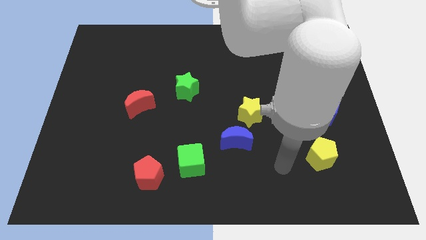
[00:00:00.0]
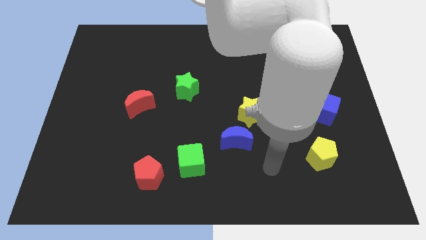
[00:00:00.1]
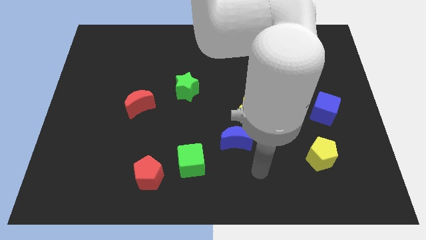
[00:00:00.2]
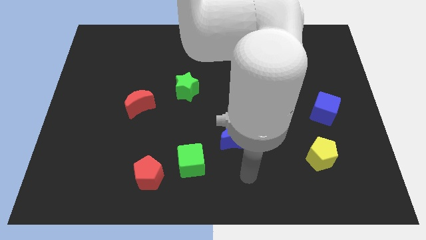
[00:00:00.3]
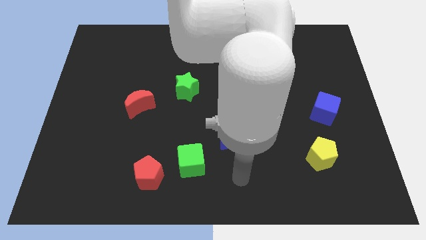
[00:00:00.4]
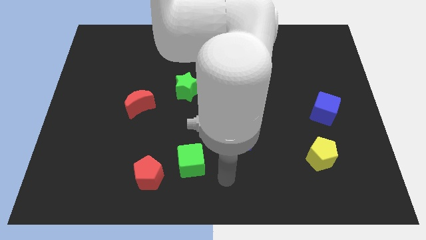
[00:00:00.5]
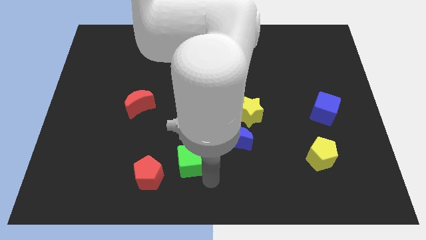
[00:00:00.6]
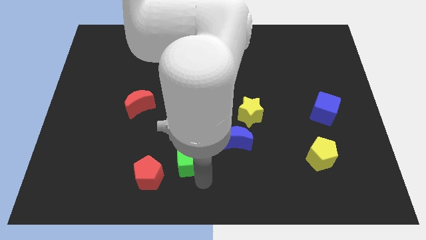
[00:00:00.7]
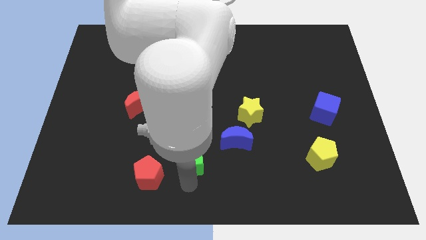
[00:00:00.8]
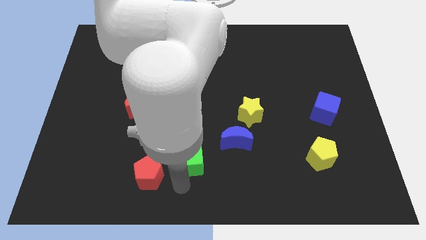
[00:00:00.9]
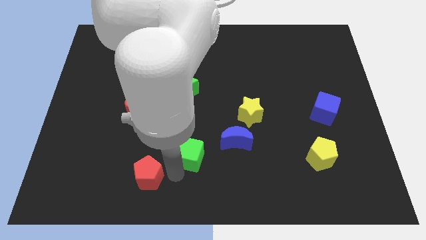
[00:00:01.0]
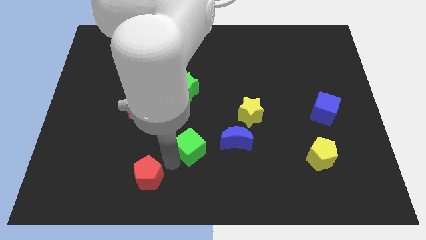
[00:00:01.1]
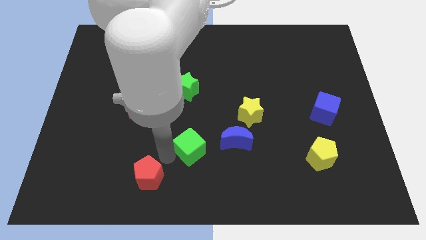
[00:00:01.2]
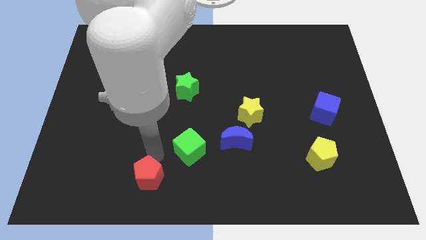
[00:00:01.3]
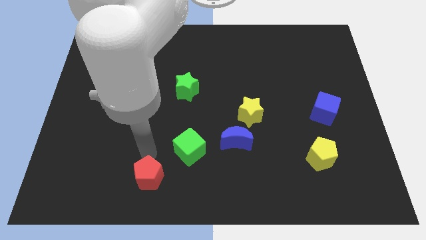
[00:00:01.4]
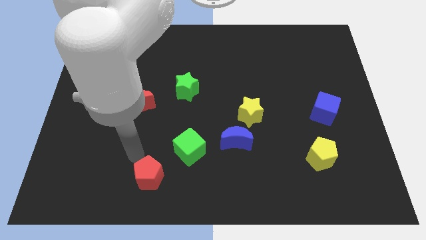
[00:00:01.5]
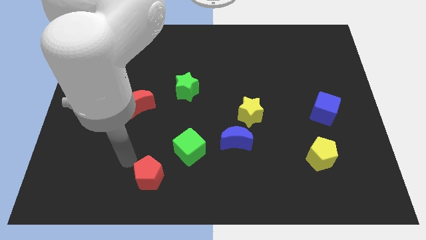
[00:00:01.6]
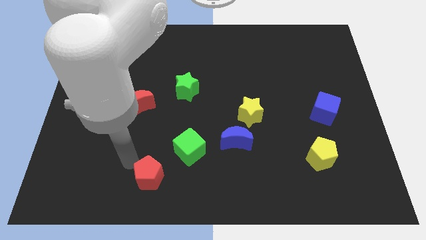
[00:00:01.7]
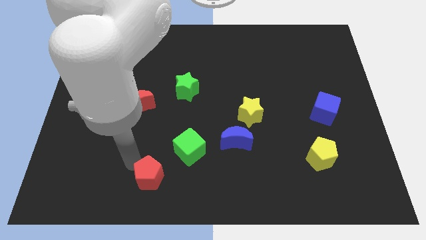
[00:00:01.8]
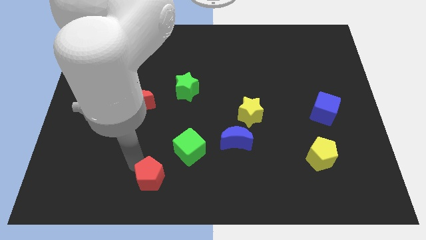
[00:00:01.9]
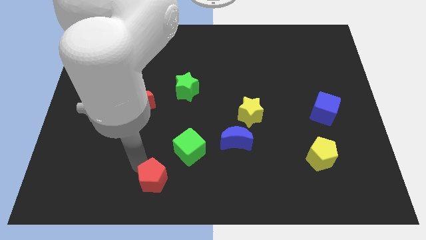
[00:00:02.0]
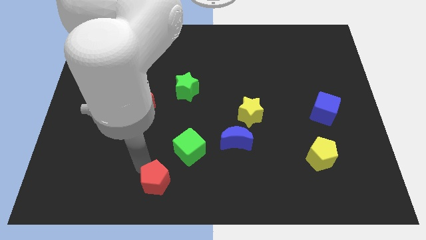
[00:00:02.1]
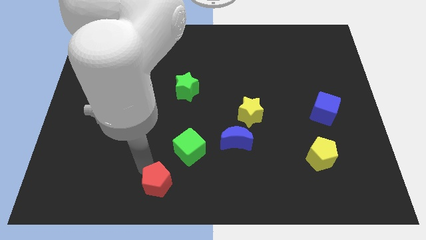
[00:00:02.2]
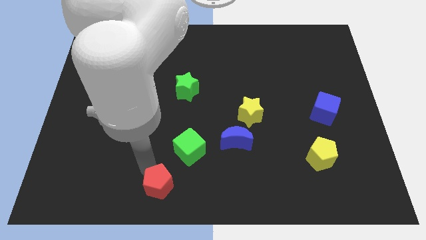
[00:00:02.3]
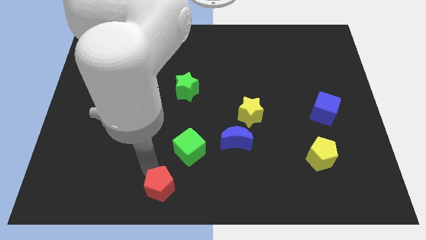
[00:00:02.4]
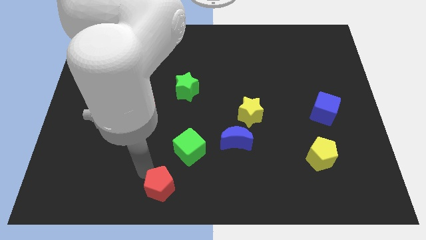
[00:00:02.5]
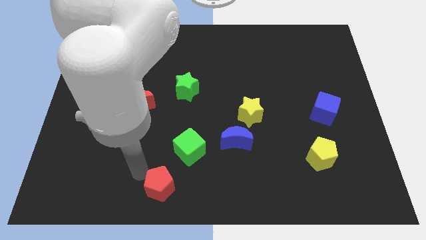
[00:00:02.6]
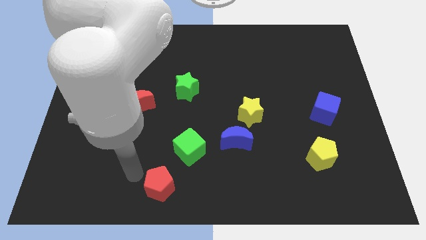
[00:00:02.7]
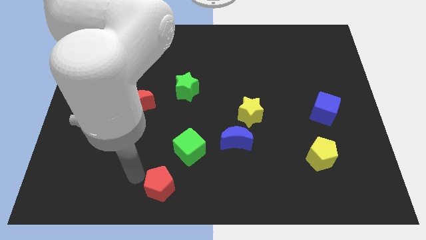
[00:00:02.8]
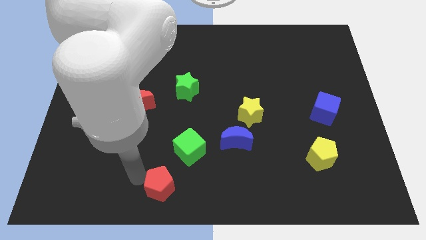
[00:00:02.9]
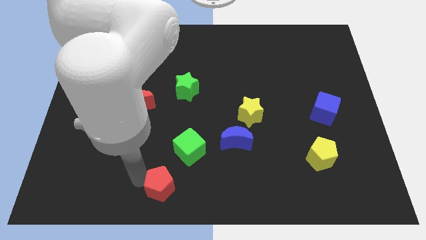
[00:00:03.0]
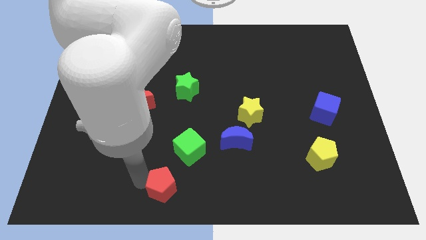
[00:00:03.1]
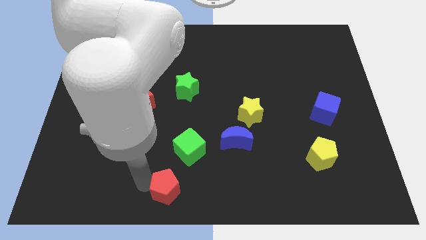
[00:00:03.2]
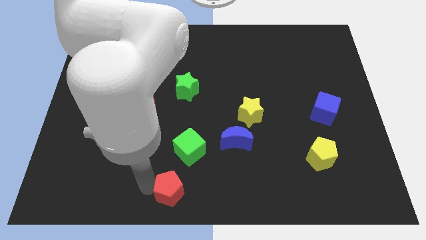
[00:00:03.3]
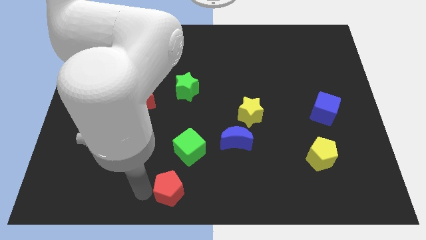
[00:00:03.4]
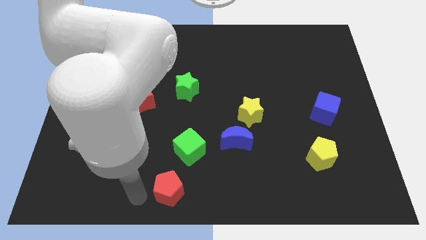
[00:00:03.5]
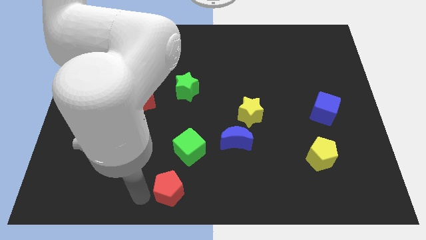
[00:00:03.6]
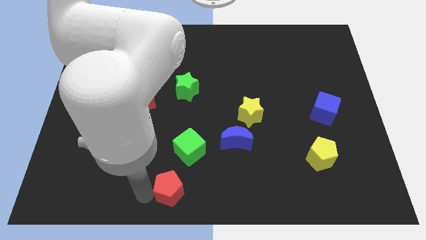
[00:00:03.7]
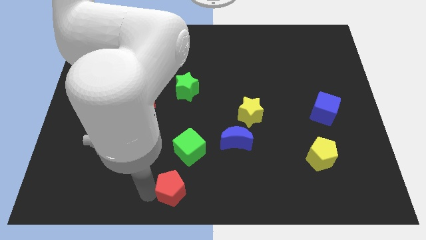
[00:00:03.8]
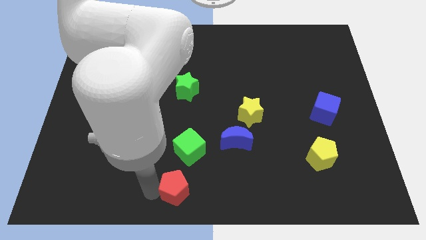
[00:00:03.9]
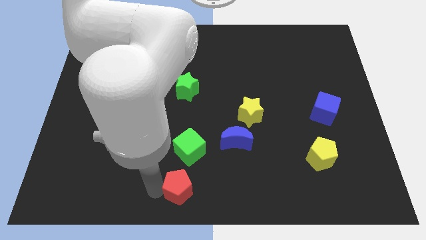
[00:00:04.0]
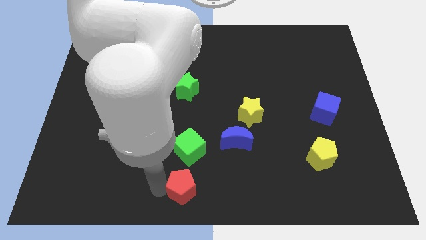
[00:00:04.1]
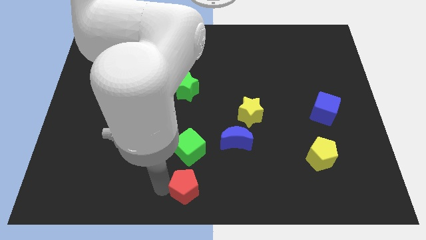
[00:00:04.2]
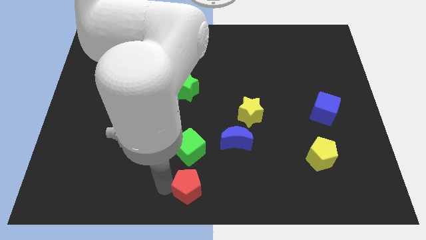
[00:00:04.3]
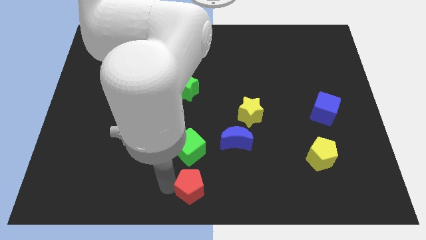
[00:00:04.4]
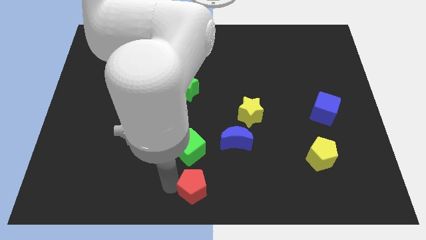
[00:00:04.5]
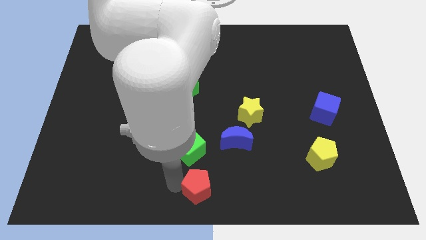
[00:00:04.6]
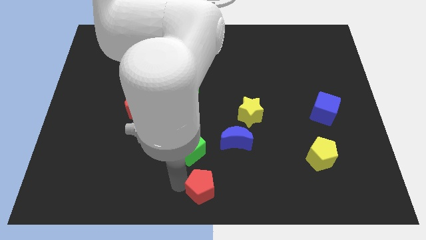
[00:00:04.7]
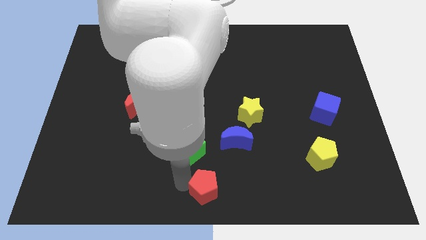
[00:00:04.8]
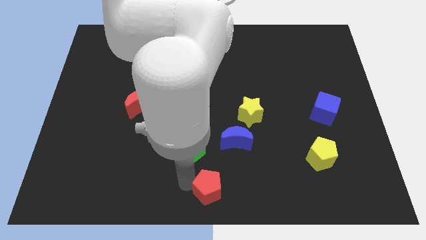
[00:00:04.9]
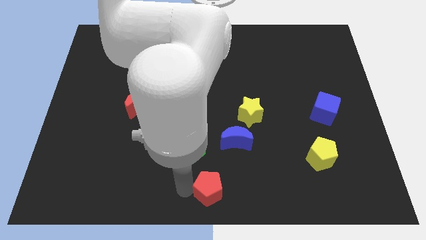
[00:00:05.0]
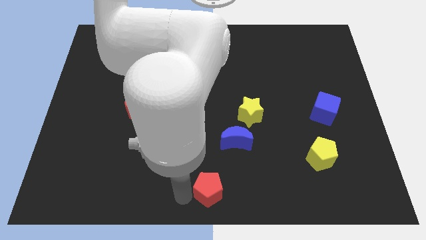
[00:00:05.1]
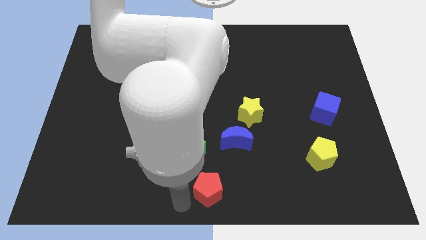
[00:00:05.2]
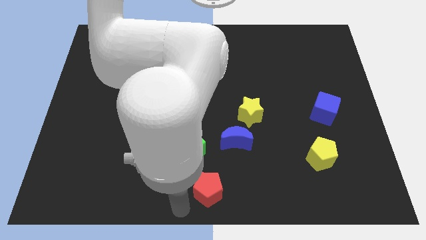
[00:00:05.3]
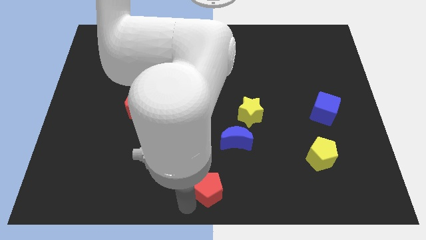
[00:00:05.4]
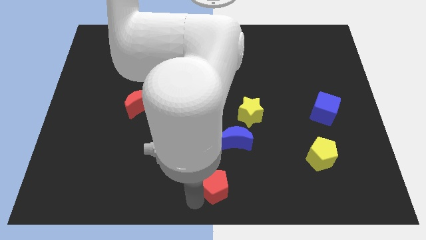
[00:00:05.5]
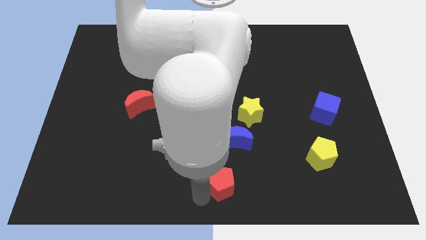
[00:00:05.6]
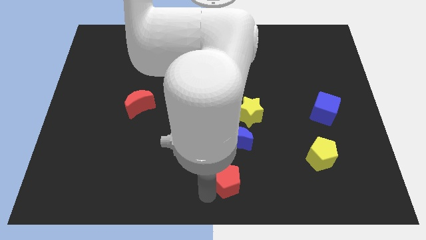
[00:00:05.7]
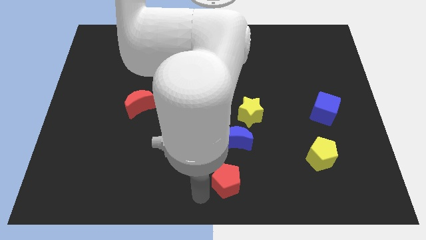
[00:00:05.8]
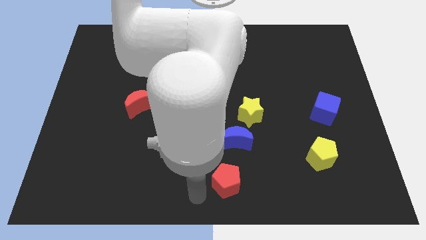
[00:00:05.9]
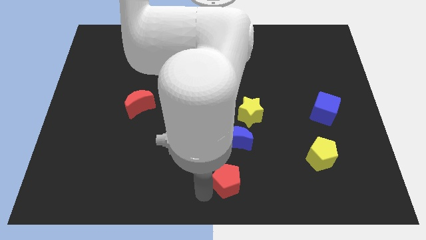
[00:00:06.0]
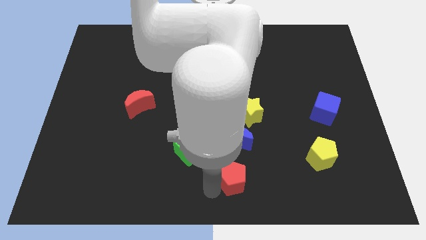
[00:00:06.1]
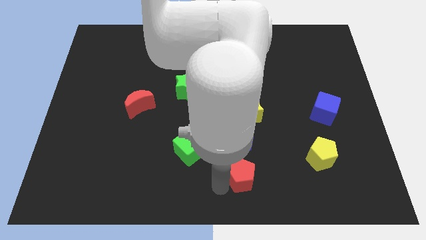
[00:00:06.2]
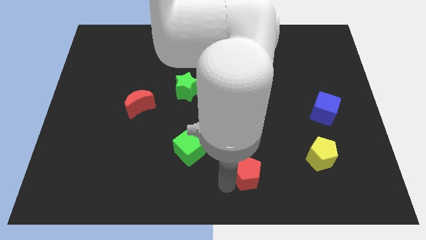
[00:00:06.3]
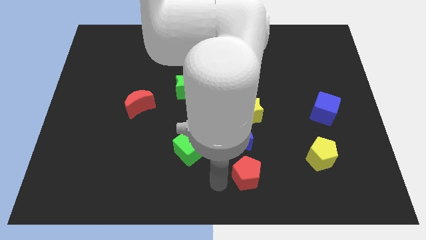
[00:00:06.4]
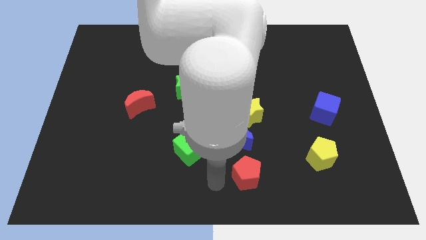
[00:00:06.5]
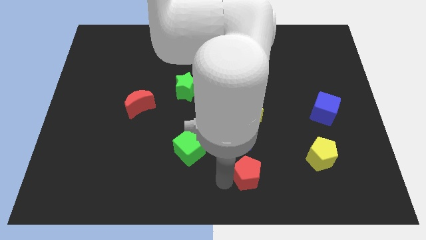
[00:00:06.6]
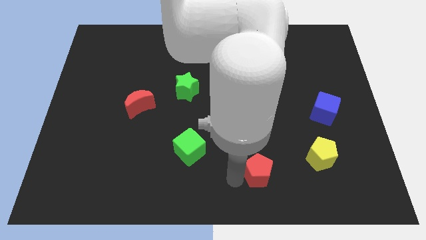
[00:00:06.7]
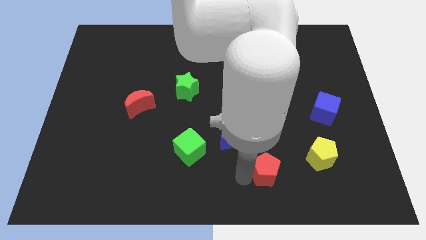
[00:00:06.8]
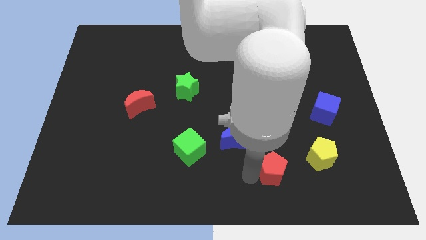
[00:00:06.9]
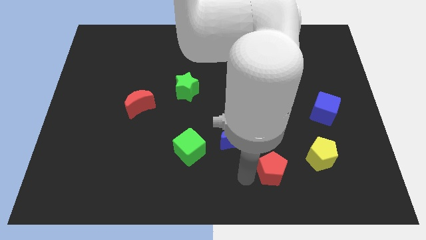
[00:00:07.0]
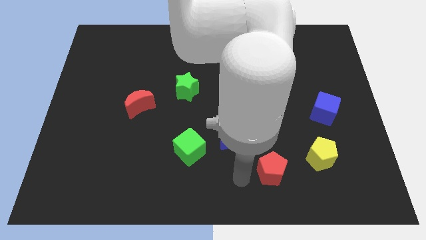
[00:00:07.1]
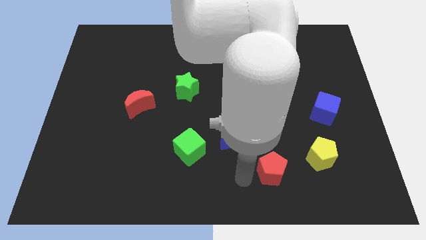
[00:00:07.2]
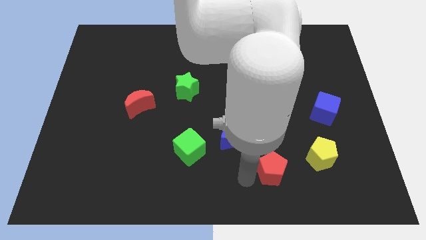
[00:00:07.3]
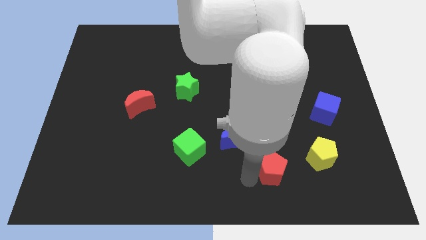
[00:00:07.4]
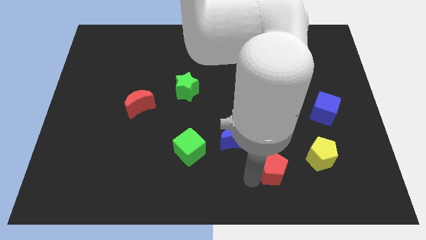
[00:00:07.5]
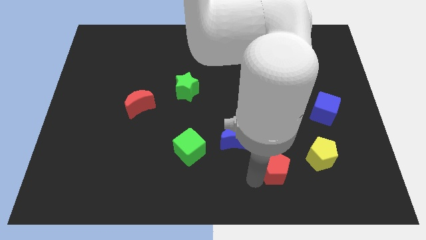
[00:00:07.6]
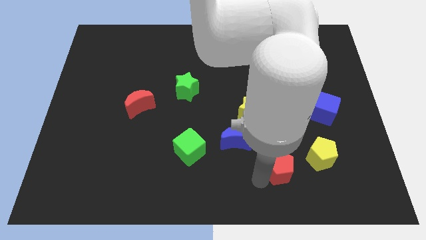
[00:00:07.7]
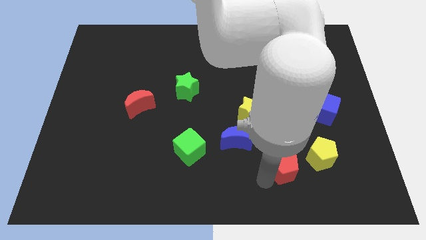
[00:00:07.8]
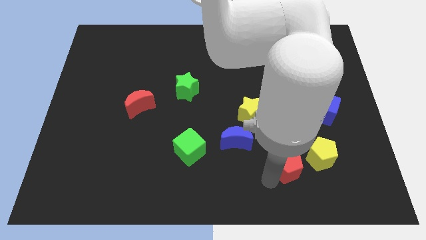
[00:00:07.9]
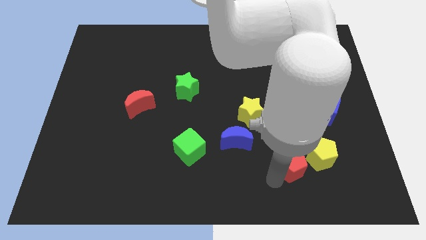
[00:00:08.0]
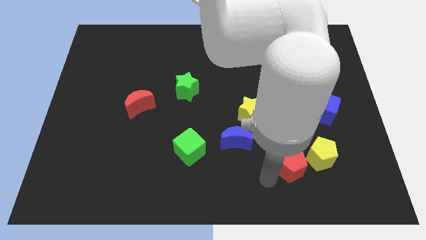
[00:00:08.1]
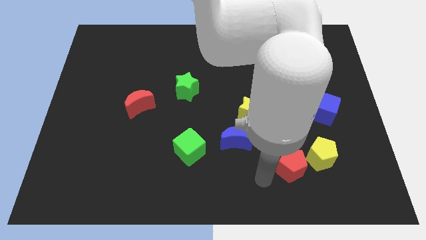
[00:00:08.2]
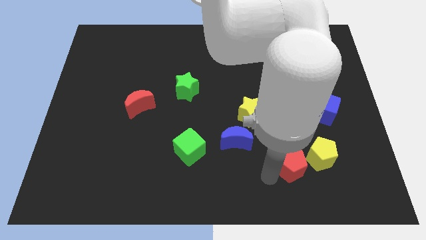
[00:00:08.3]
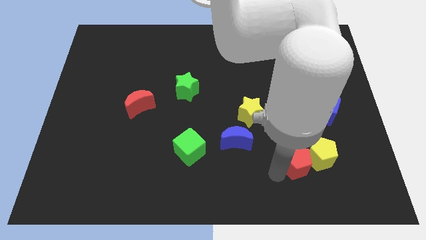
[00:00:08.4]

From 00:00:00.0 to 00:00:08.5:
put the red pentagon to the yellow pentagon
